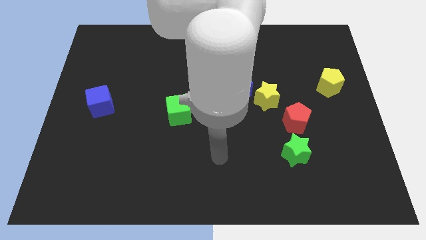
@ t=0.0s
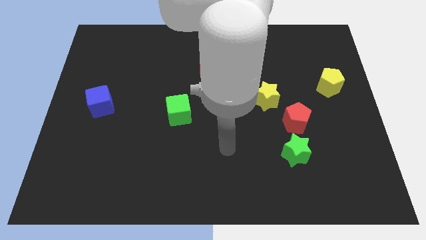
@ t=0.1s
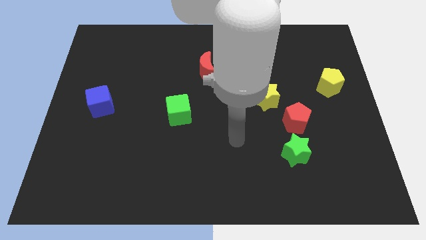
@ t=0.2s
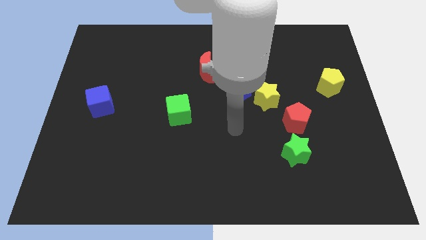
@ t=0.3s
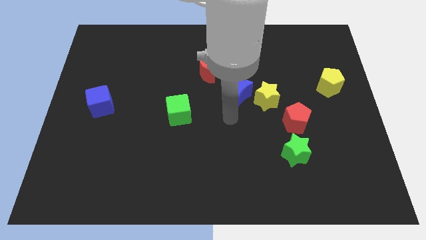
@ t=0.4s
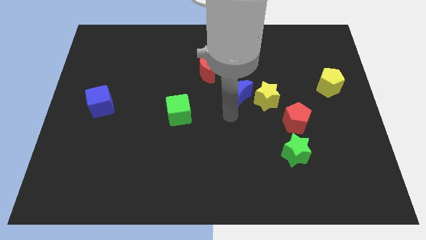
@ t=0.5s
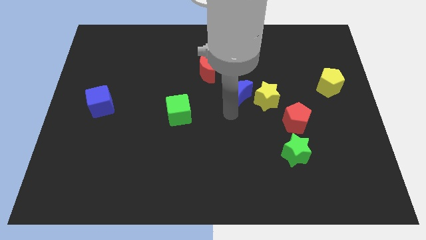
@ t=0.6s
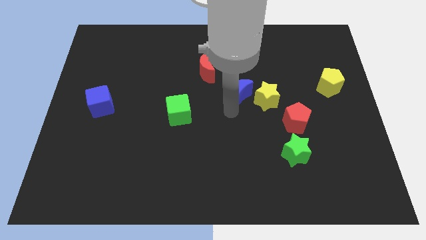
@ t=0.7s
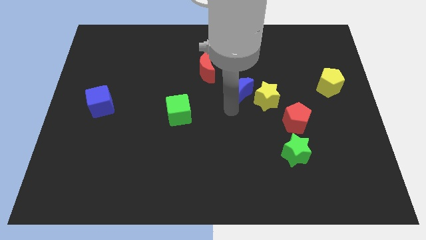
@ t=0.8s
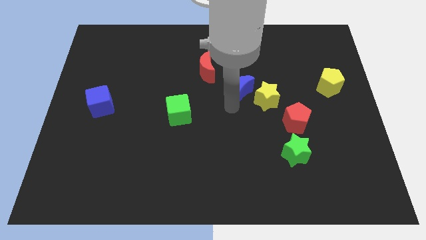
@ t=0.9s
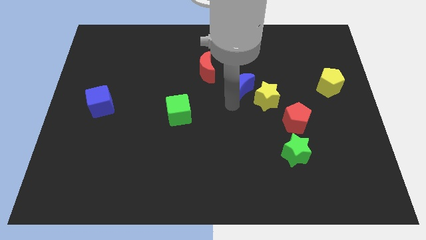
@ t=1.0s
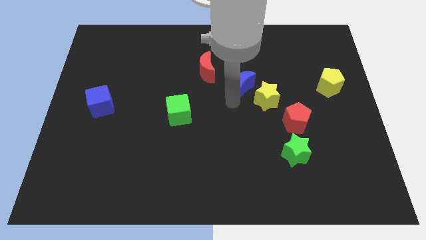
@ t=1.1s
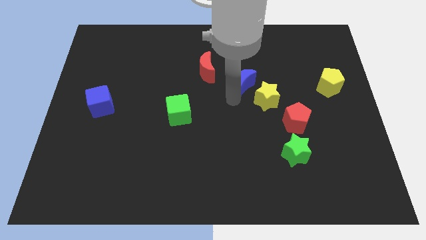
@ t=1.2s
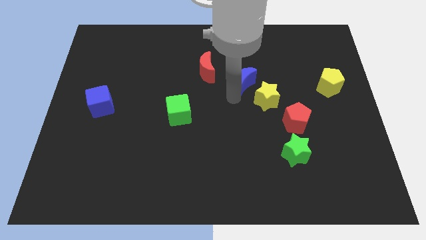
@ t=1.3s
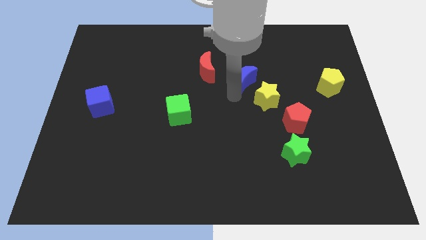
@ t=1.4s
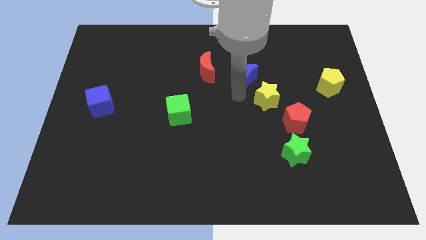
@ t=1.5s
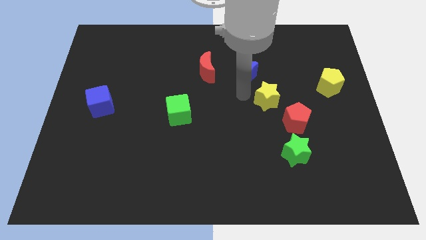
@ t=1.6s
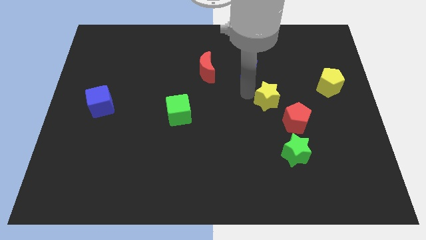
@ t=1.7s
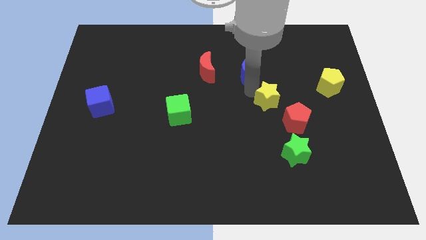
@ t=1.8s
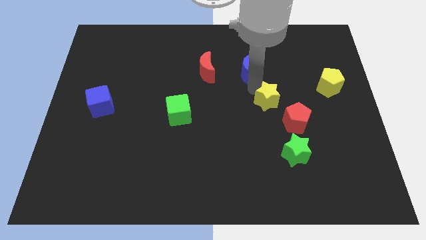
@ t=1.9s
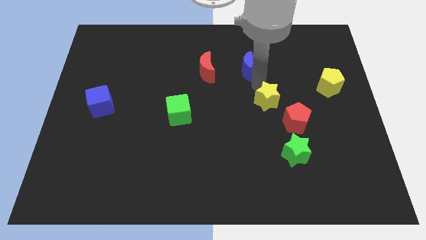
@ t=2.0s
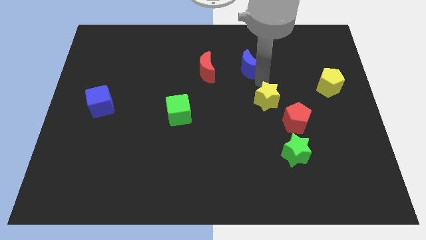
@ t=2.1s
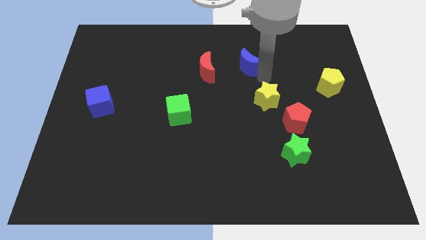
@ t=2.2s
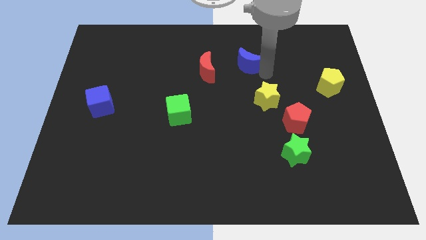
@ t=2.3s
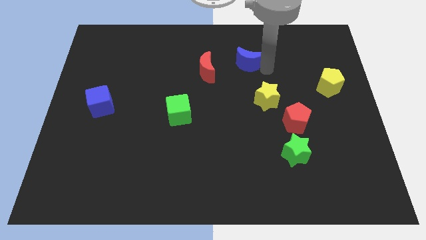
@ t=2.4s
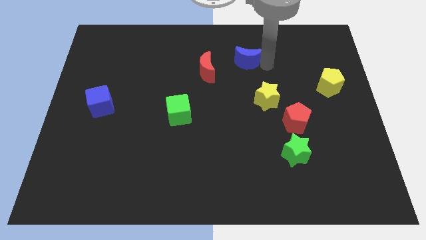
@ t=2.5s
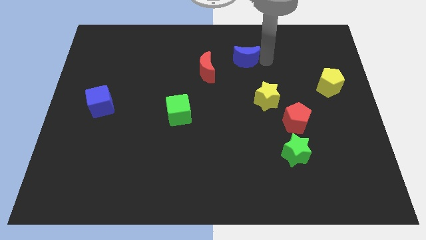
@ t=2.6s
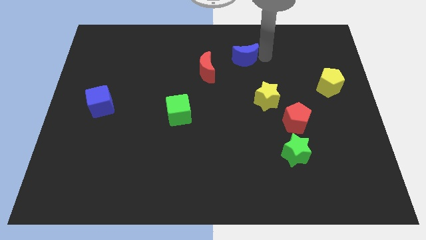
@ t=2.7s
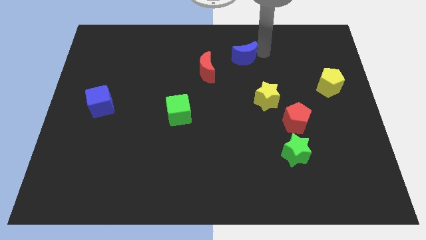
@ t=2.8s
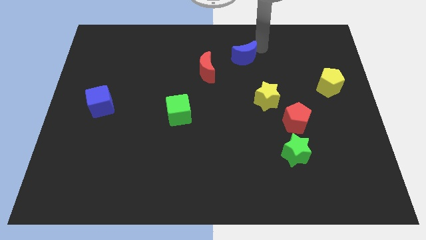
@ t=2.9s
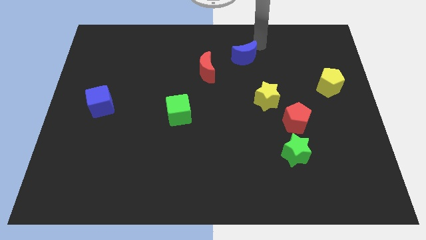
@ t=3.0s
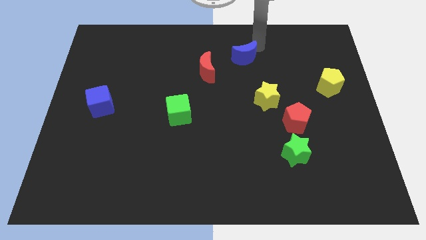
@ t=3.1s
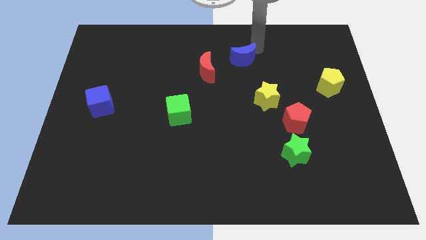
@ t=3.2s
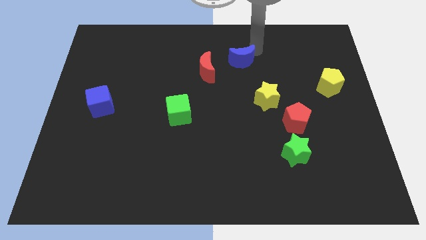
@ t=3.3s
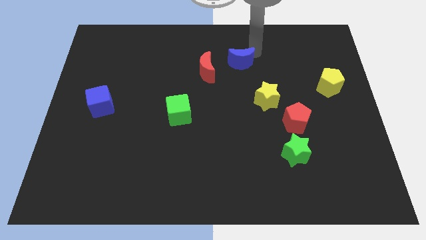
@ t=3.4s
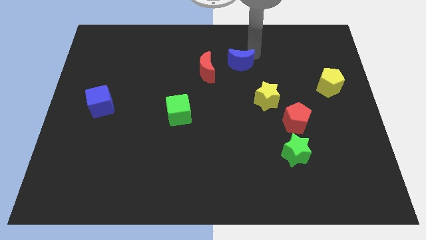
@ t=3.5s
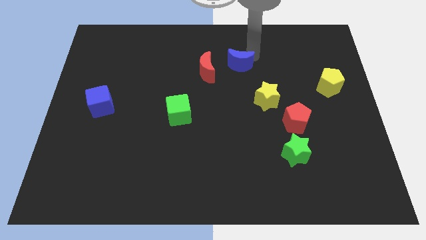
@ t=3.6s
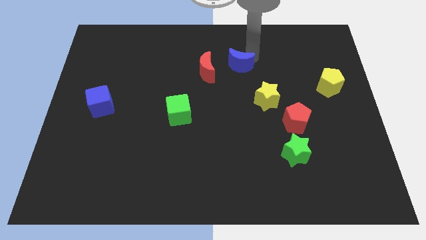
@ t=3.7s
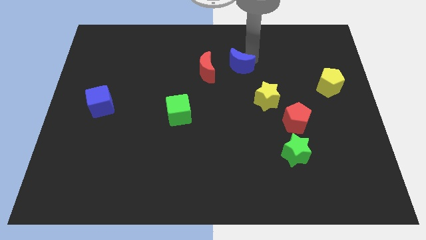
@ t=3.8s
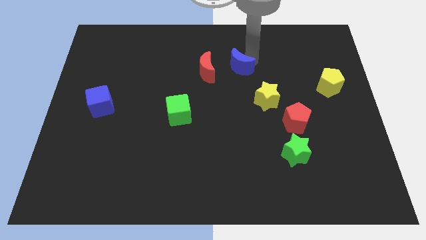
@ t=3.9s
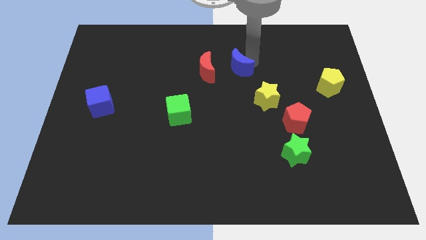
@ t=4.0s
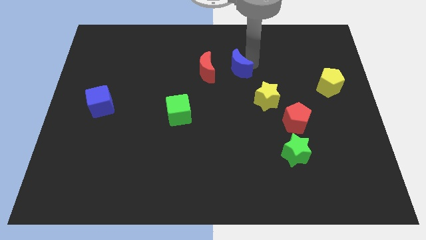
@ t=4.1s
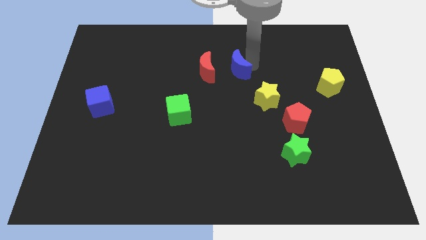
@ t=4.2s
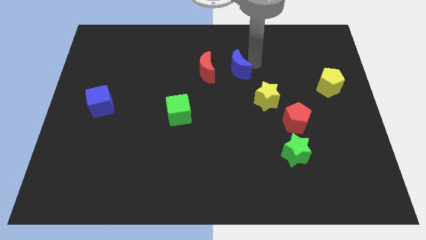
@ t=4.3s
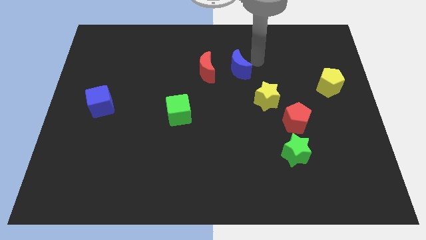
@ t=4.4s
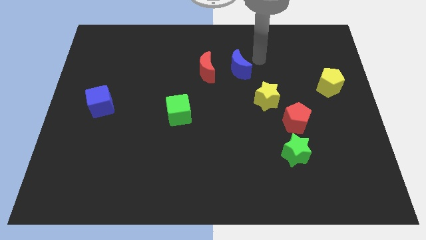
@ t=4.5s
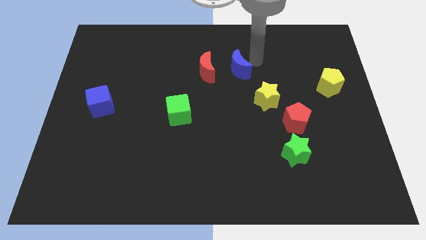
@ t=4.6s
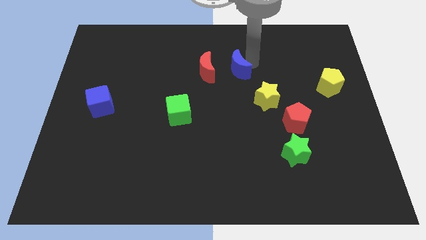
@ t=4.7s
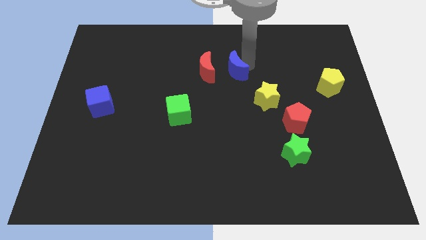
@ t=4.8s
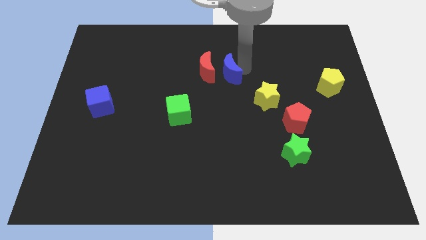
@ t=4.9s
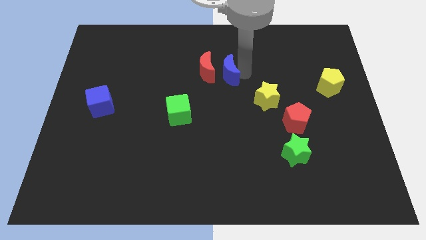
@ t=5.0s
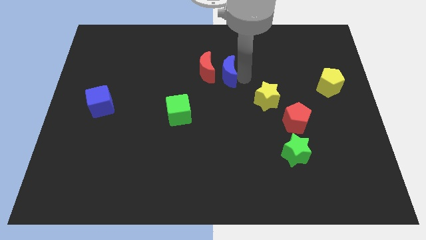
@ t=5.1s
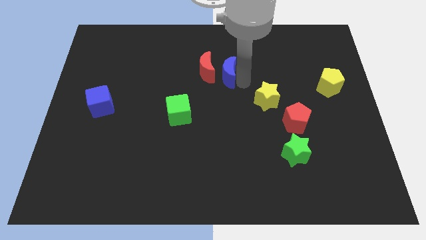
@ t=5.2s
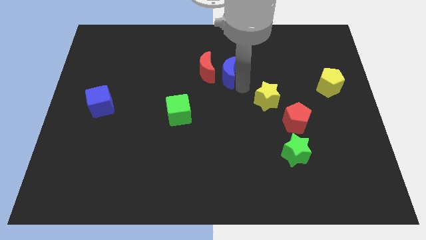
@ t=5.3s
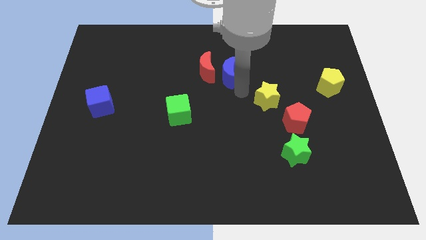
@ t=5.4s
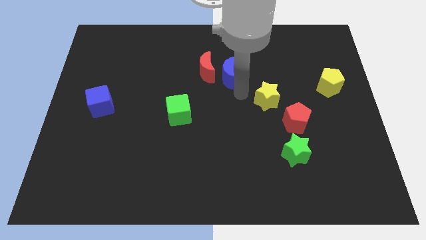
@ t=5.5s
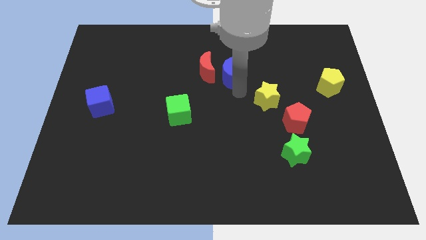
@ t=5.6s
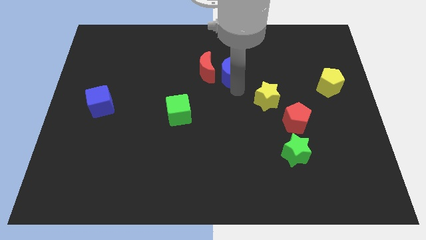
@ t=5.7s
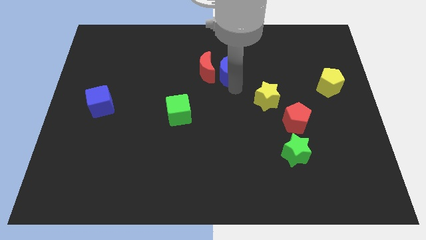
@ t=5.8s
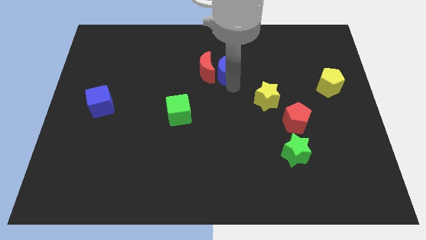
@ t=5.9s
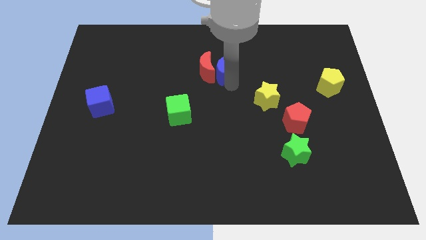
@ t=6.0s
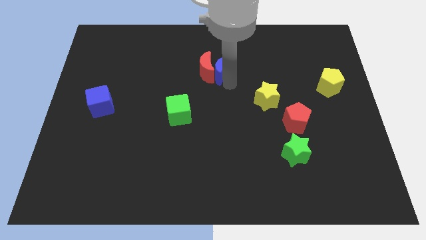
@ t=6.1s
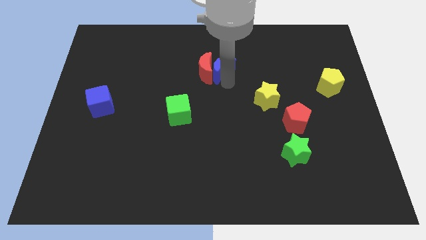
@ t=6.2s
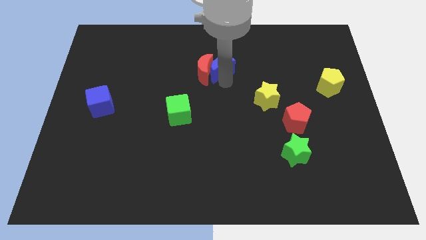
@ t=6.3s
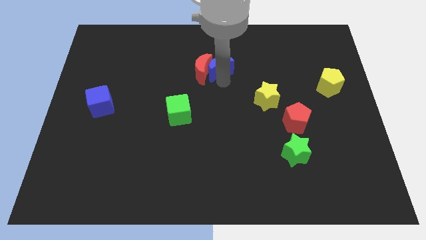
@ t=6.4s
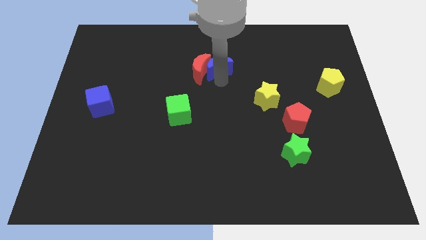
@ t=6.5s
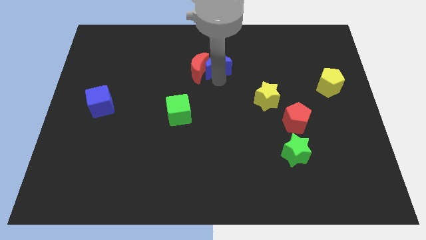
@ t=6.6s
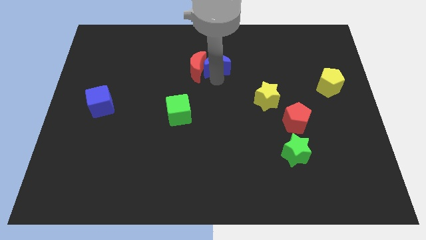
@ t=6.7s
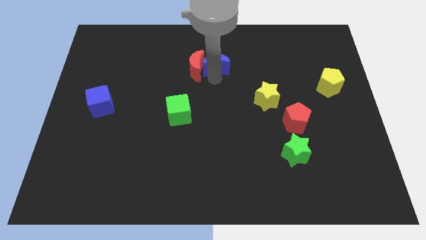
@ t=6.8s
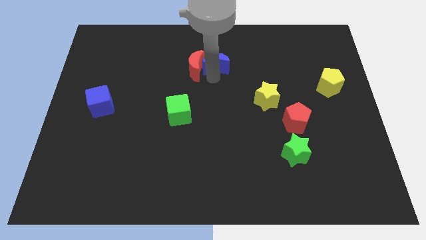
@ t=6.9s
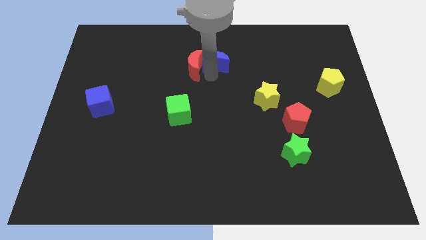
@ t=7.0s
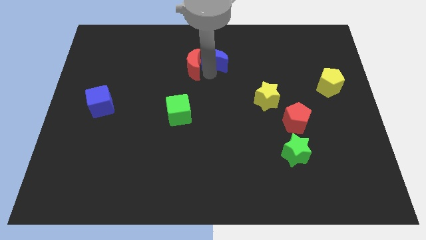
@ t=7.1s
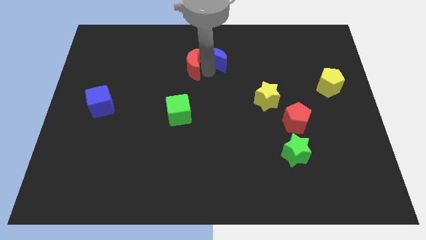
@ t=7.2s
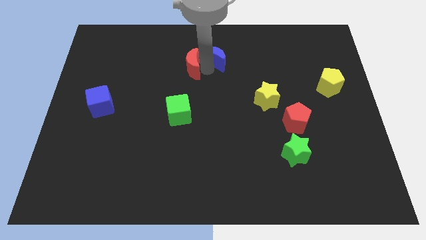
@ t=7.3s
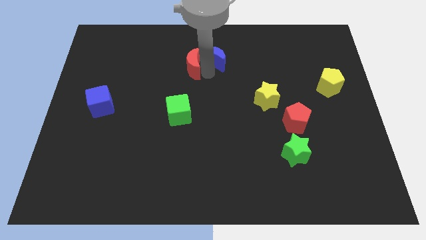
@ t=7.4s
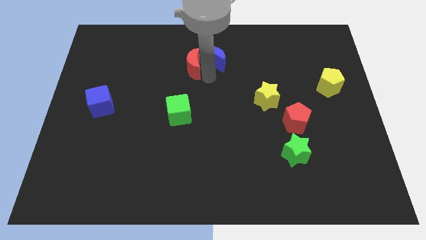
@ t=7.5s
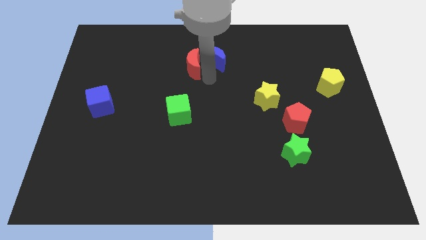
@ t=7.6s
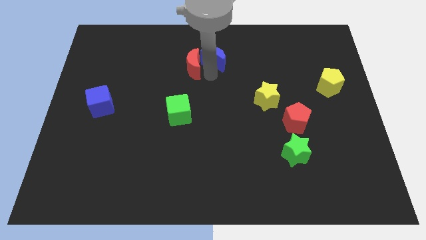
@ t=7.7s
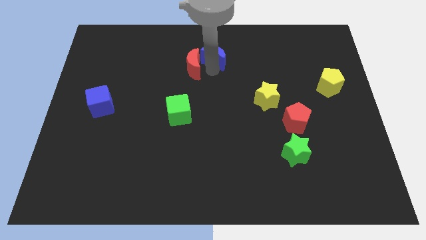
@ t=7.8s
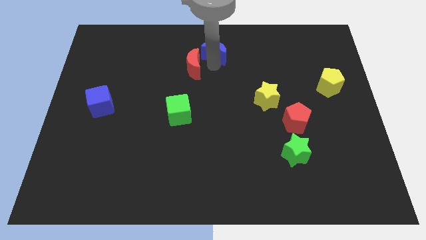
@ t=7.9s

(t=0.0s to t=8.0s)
push the blue moon to the top side
